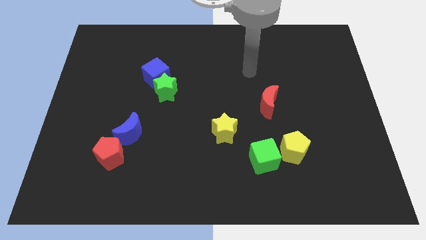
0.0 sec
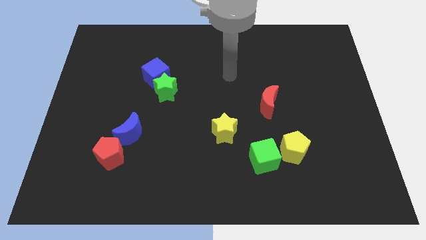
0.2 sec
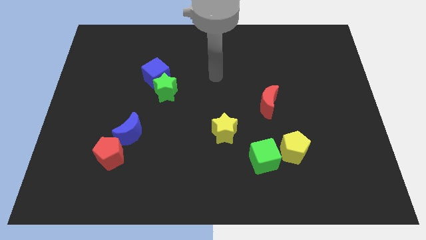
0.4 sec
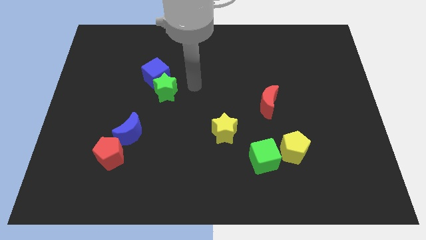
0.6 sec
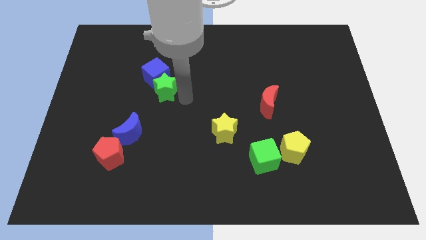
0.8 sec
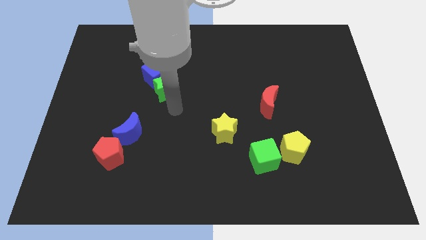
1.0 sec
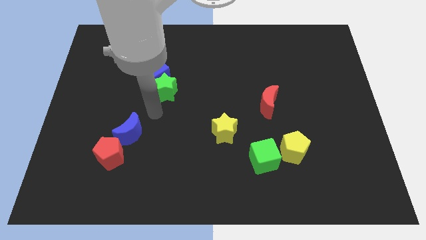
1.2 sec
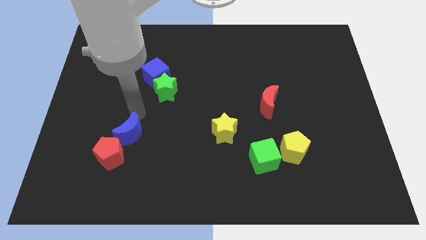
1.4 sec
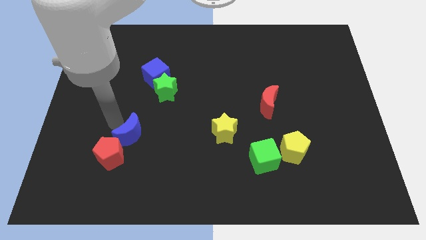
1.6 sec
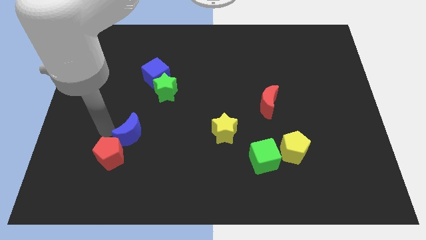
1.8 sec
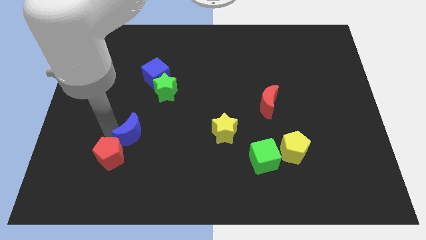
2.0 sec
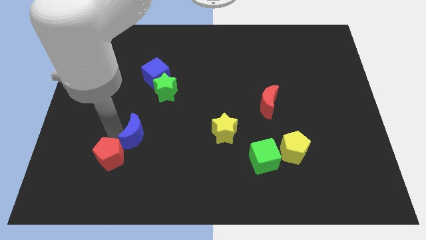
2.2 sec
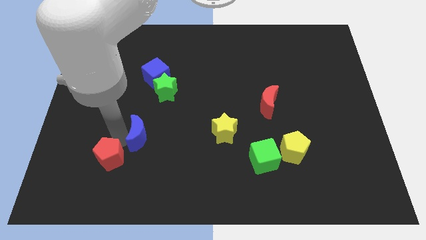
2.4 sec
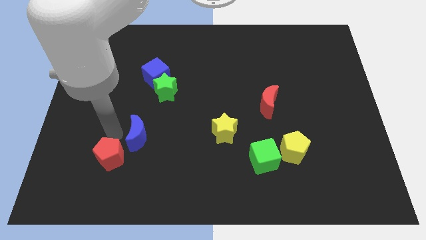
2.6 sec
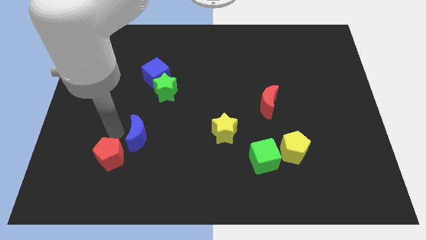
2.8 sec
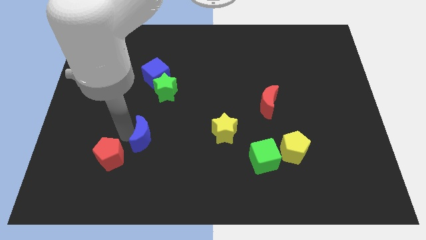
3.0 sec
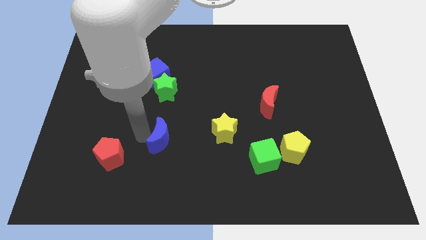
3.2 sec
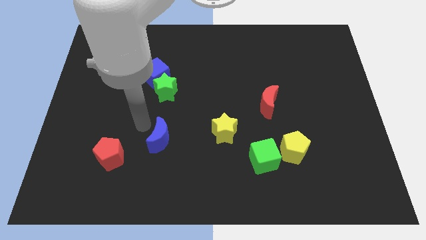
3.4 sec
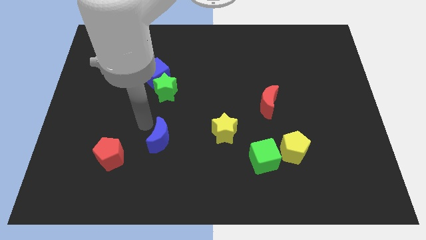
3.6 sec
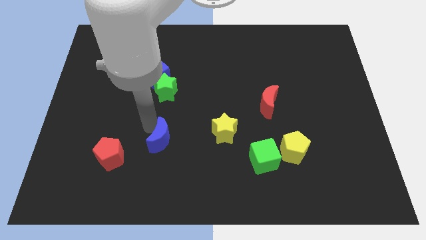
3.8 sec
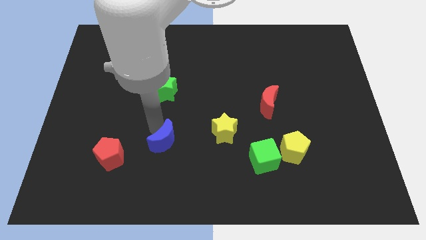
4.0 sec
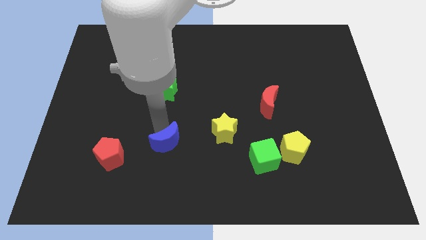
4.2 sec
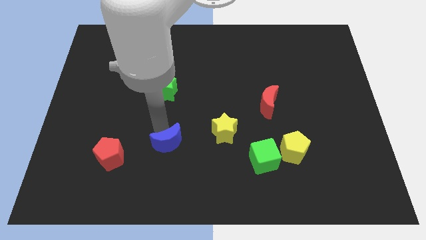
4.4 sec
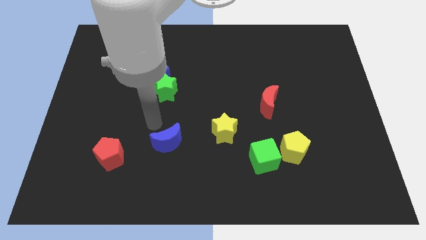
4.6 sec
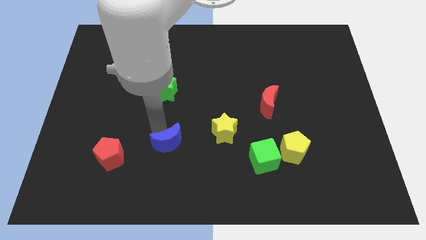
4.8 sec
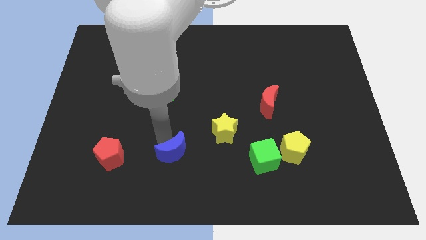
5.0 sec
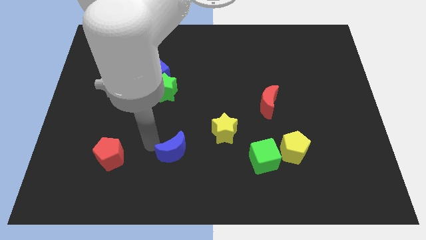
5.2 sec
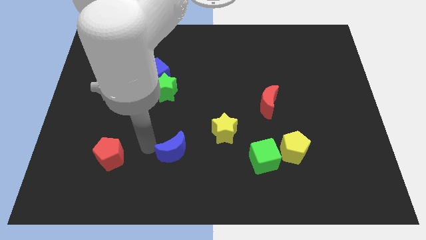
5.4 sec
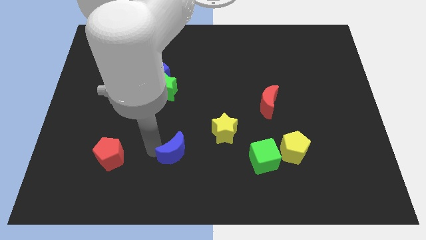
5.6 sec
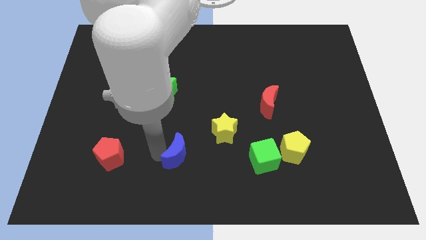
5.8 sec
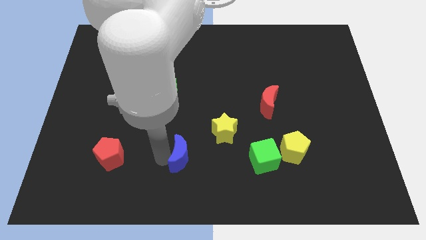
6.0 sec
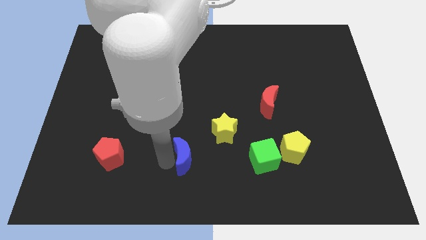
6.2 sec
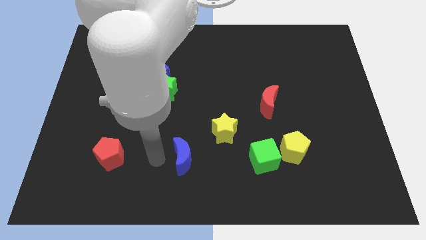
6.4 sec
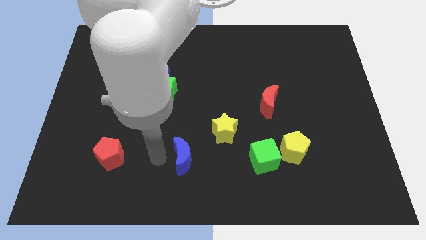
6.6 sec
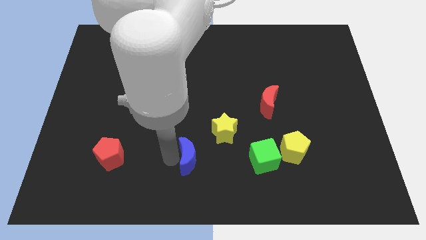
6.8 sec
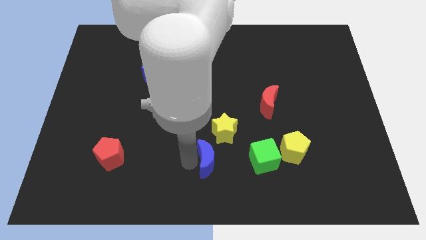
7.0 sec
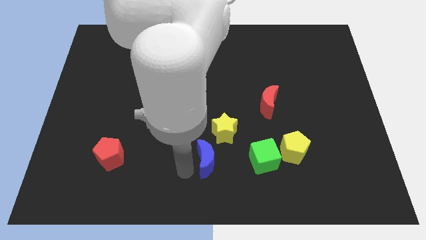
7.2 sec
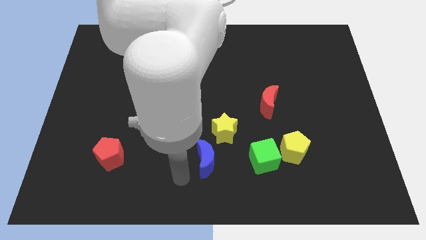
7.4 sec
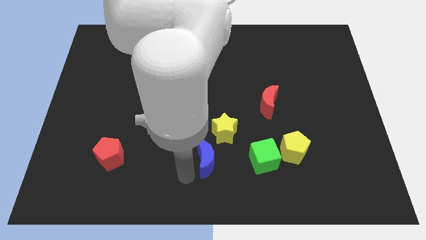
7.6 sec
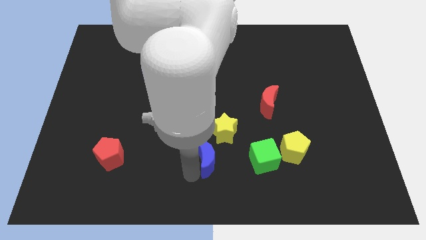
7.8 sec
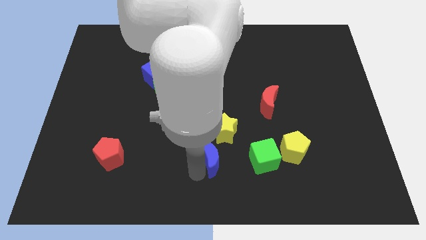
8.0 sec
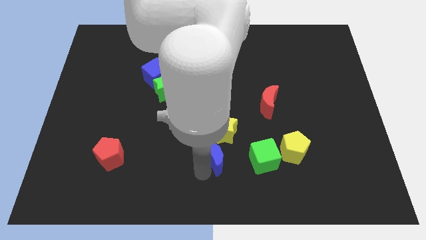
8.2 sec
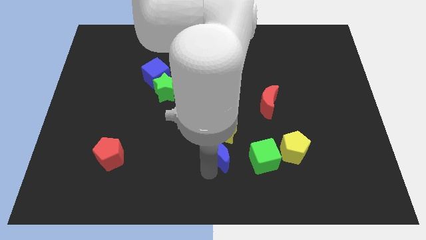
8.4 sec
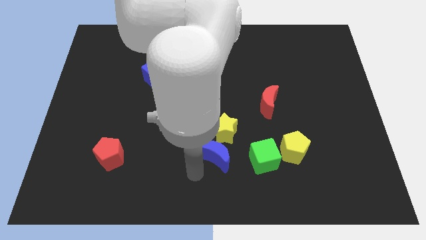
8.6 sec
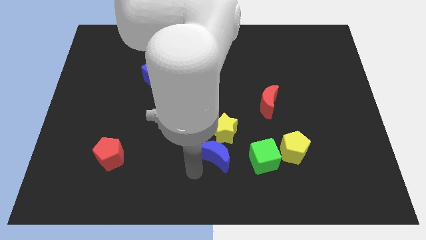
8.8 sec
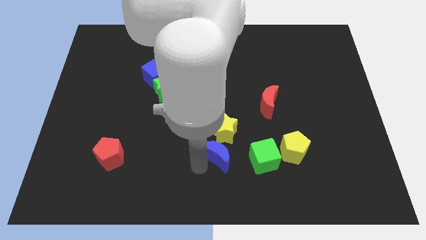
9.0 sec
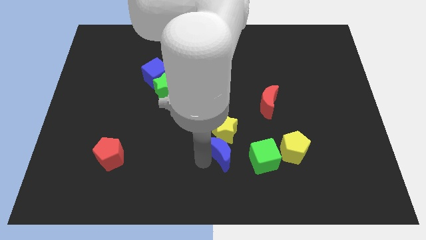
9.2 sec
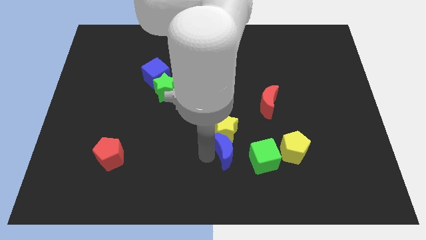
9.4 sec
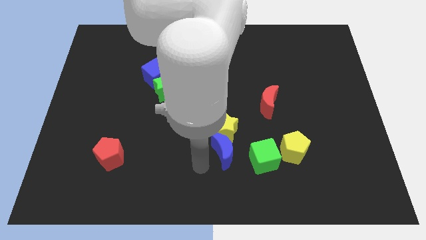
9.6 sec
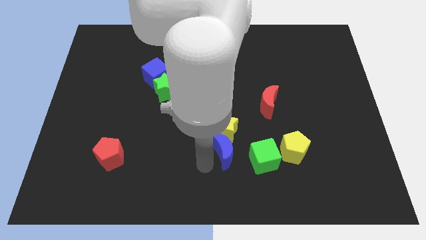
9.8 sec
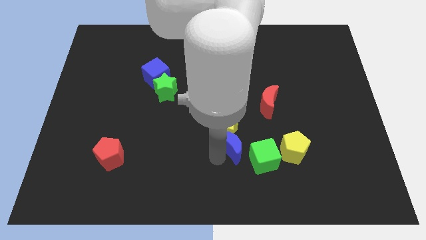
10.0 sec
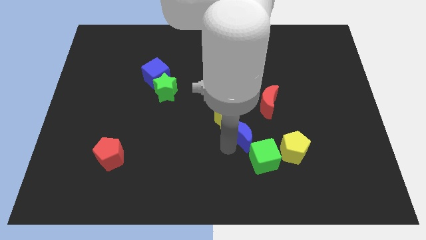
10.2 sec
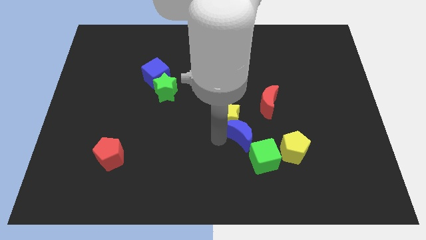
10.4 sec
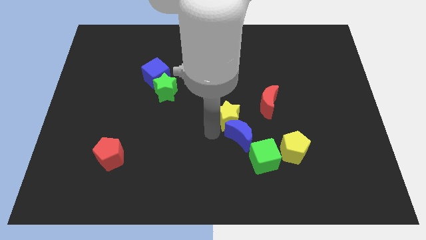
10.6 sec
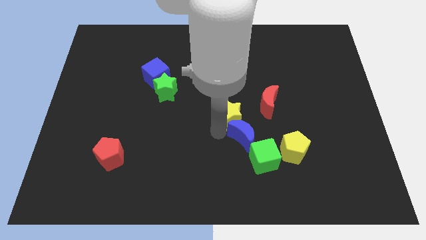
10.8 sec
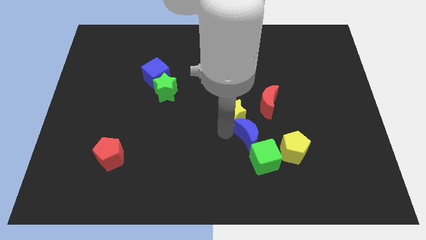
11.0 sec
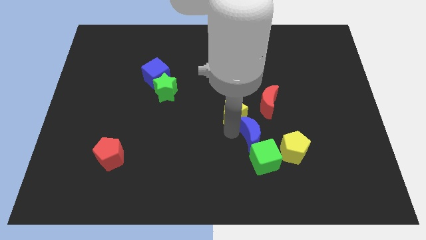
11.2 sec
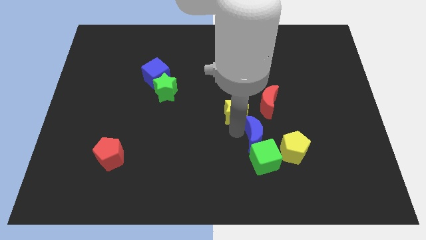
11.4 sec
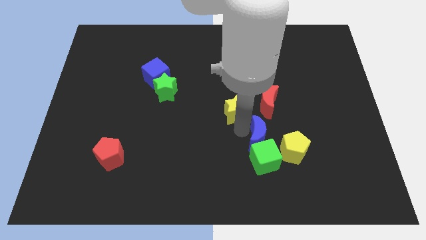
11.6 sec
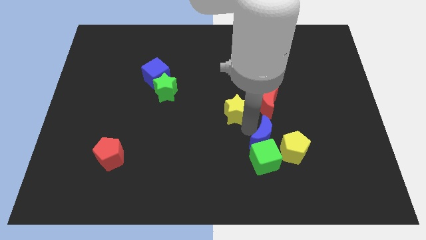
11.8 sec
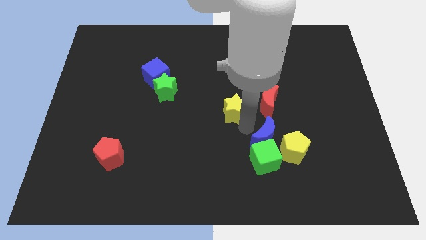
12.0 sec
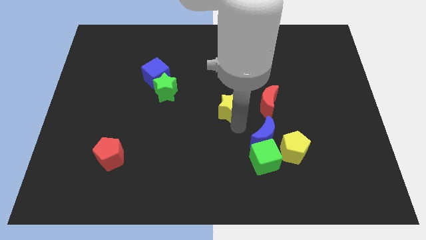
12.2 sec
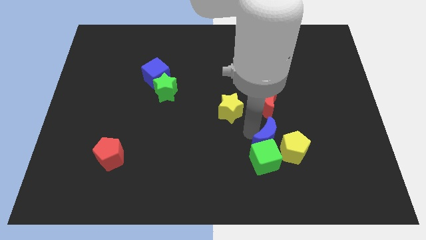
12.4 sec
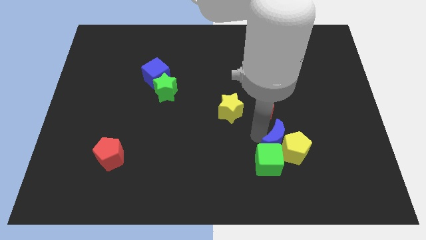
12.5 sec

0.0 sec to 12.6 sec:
put the blue moon close to the yellow pentagon

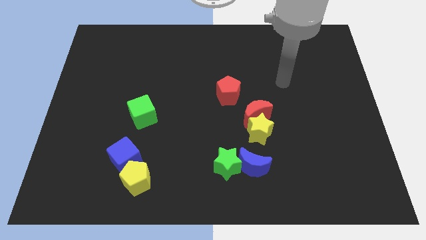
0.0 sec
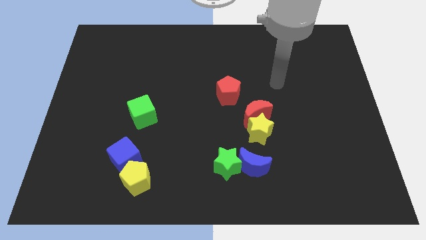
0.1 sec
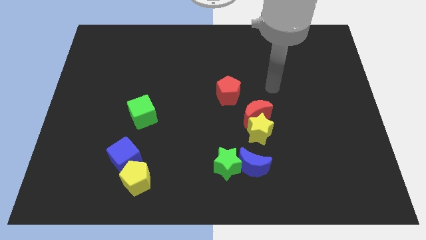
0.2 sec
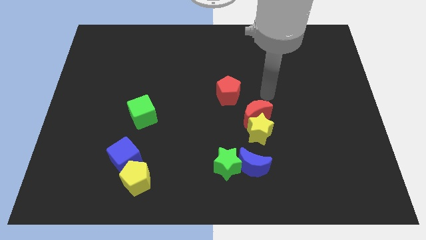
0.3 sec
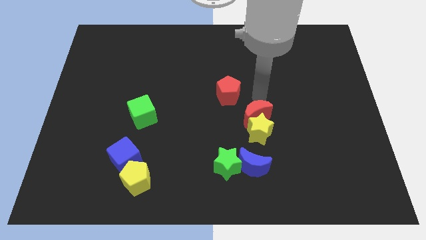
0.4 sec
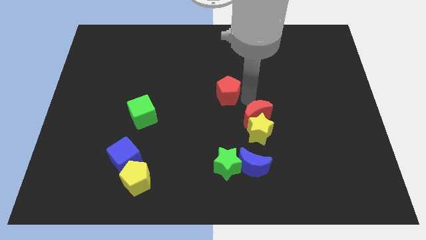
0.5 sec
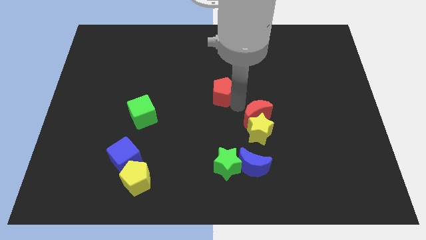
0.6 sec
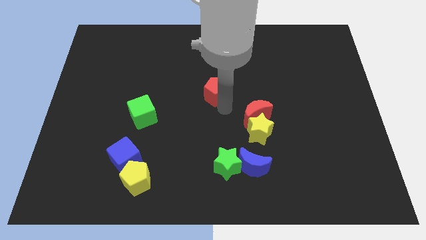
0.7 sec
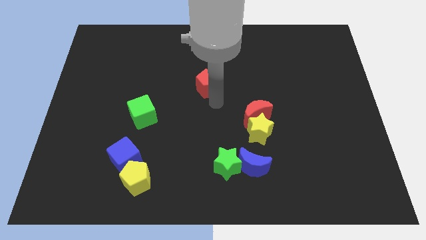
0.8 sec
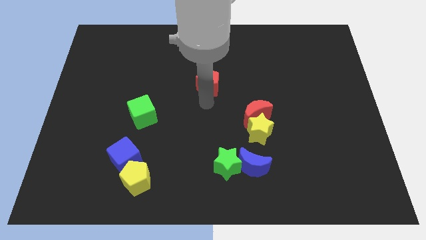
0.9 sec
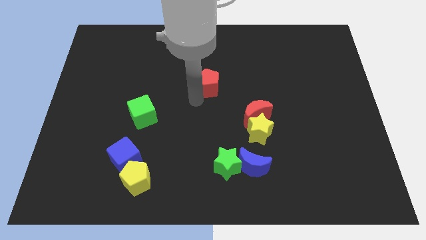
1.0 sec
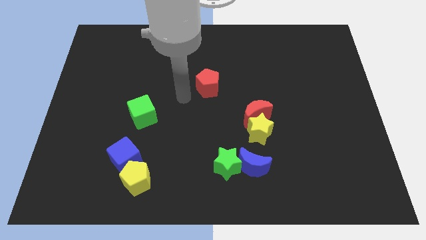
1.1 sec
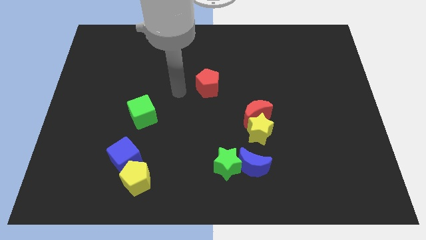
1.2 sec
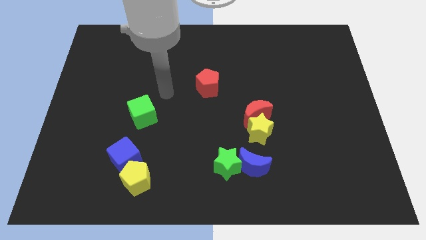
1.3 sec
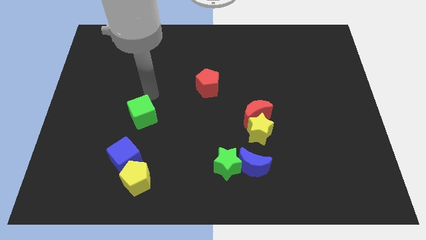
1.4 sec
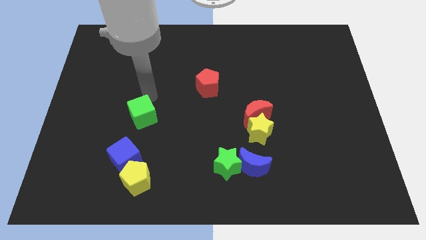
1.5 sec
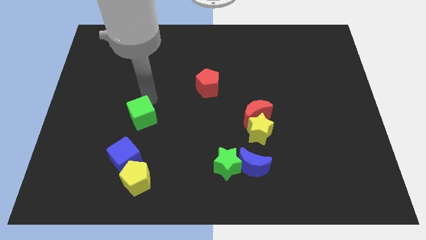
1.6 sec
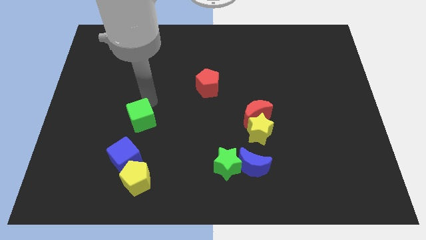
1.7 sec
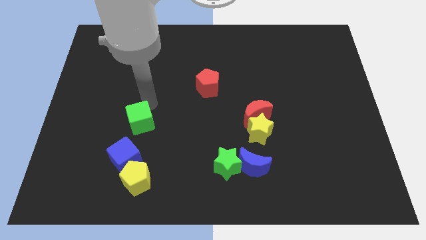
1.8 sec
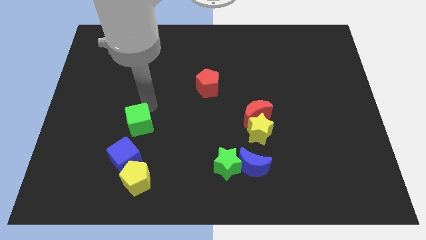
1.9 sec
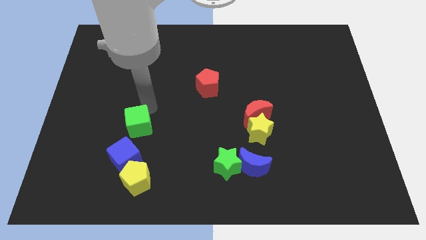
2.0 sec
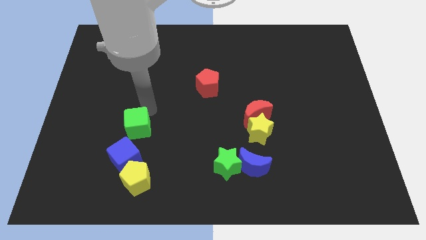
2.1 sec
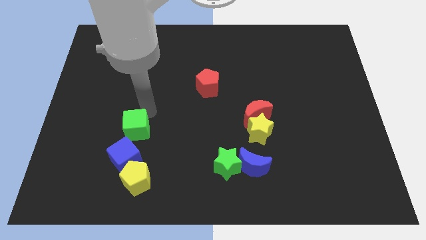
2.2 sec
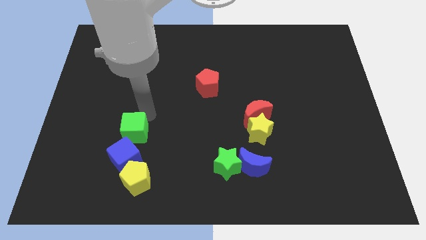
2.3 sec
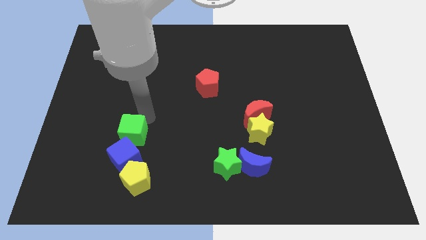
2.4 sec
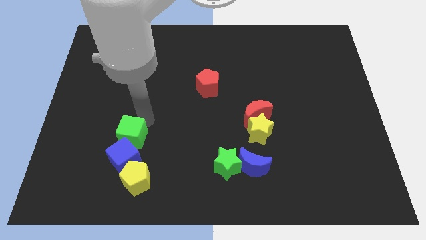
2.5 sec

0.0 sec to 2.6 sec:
push the green cube close to the blue cube
